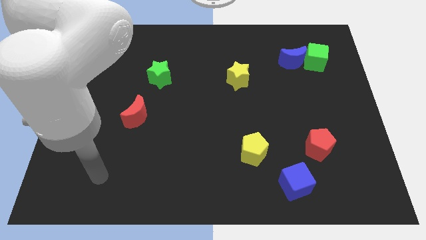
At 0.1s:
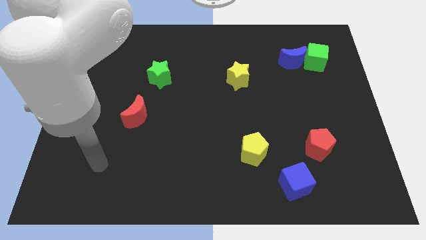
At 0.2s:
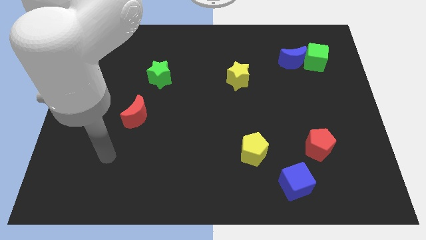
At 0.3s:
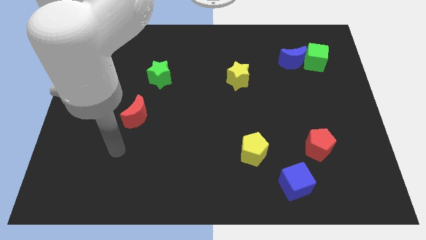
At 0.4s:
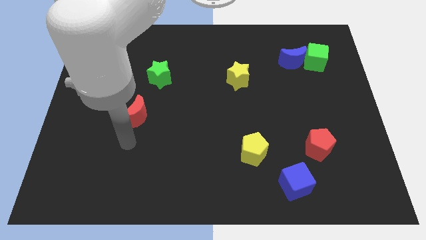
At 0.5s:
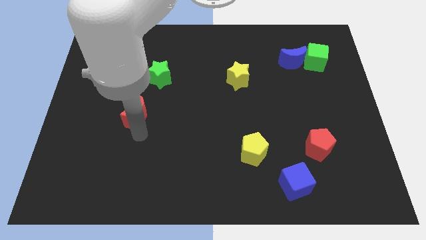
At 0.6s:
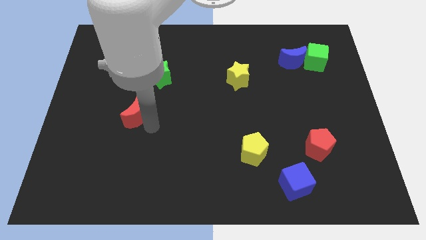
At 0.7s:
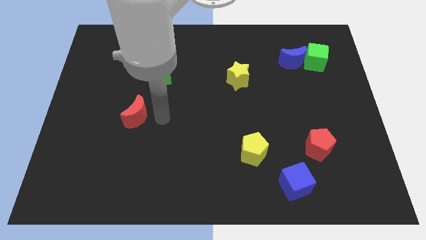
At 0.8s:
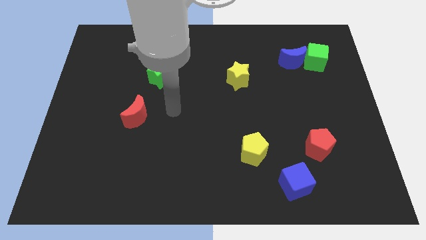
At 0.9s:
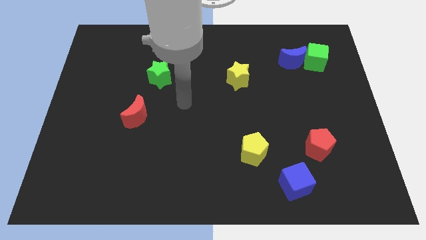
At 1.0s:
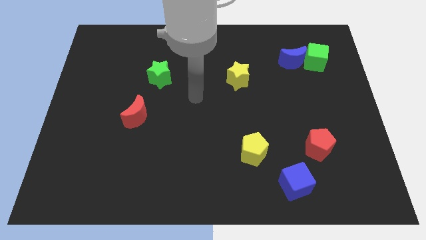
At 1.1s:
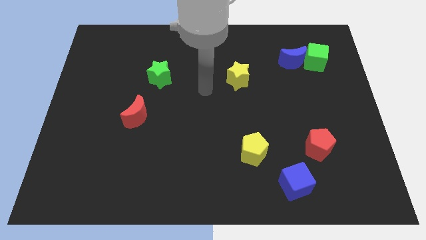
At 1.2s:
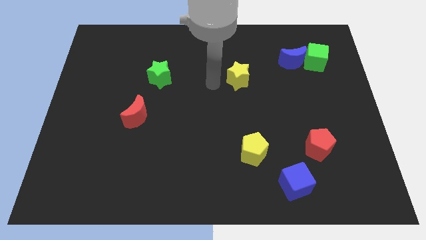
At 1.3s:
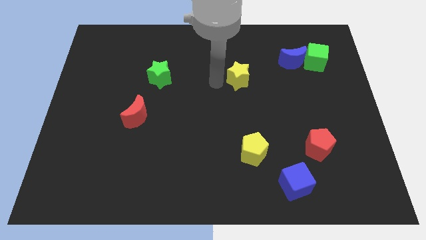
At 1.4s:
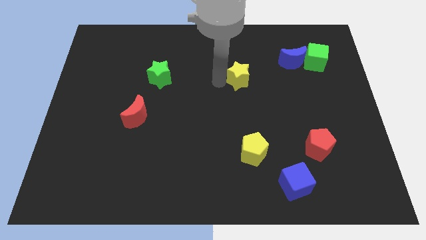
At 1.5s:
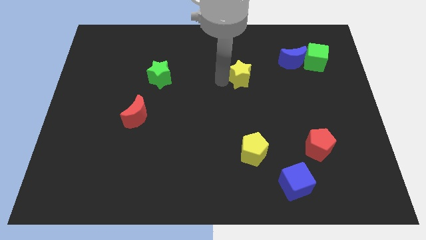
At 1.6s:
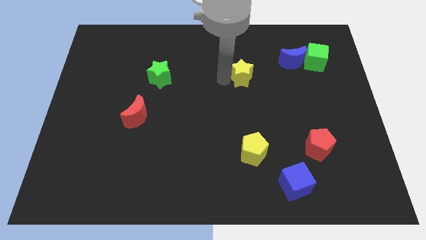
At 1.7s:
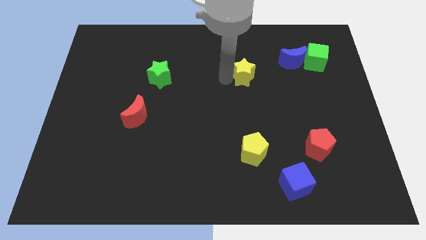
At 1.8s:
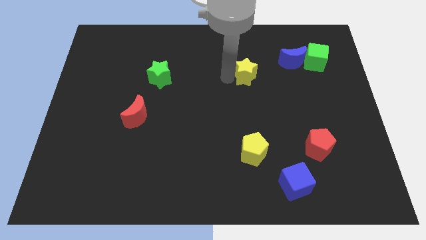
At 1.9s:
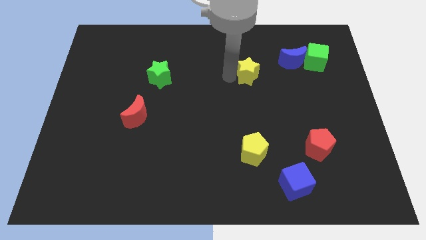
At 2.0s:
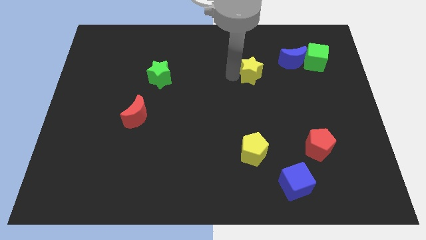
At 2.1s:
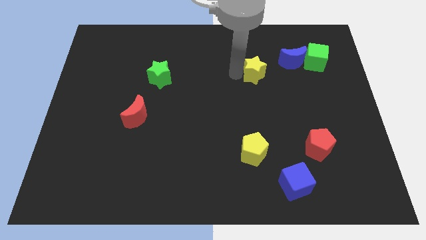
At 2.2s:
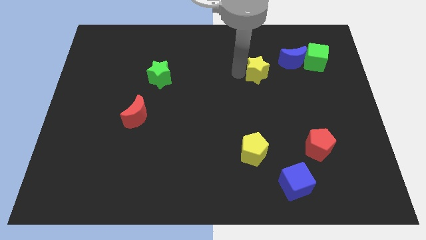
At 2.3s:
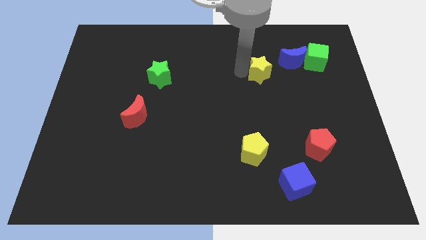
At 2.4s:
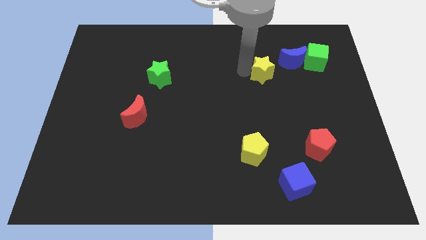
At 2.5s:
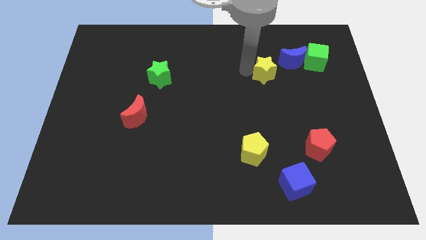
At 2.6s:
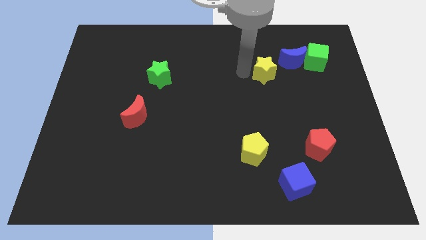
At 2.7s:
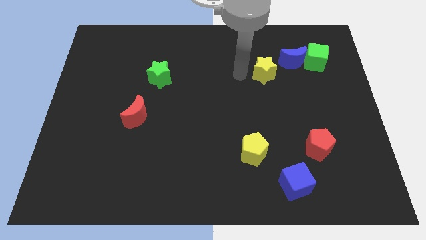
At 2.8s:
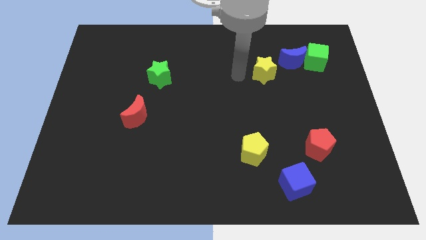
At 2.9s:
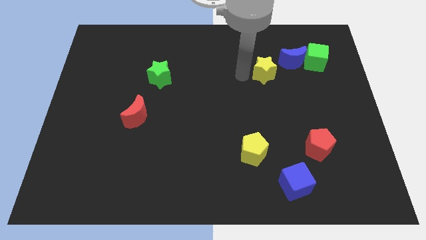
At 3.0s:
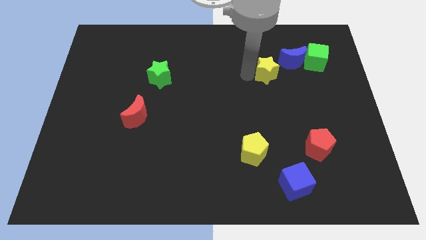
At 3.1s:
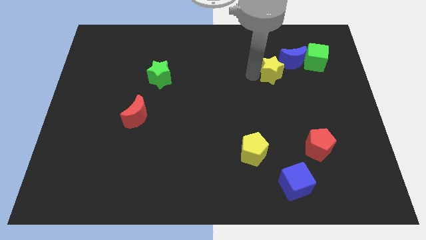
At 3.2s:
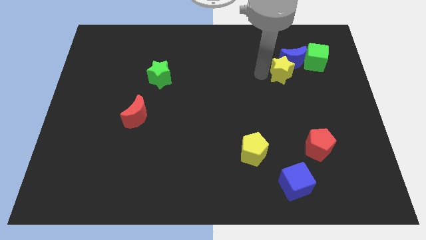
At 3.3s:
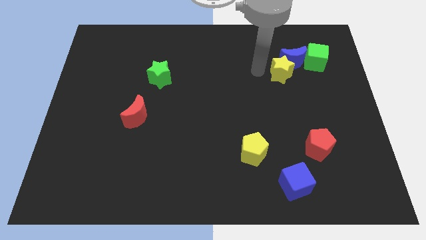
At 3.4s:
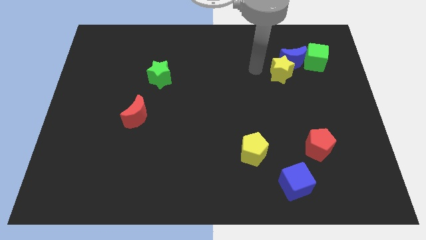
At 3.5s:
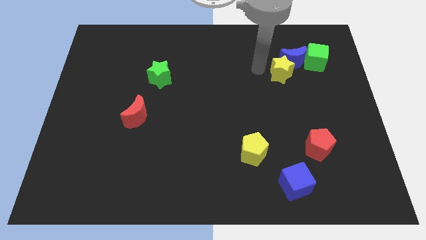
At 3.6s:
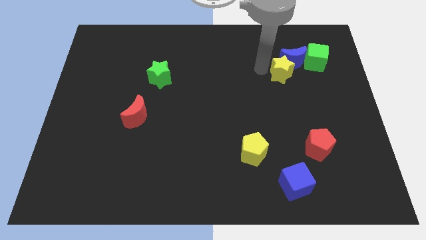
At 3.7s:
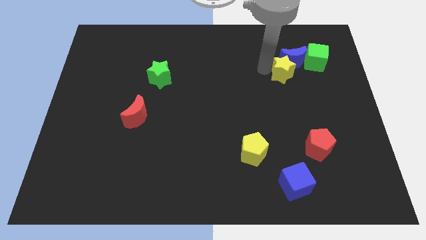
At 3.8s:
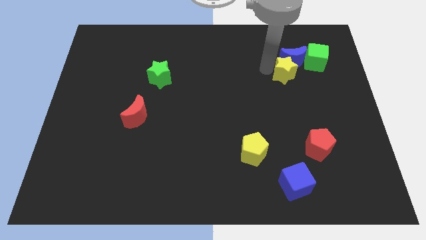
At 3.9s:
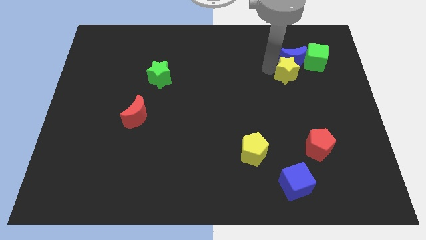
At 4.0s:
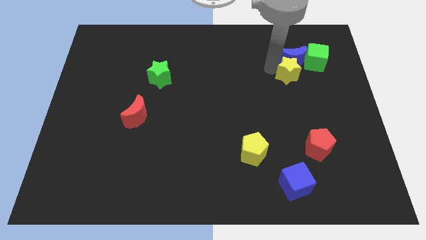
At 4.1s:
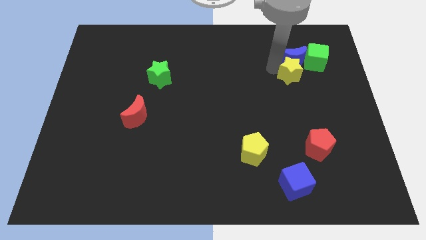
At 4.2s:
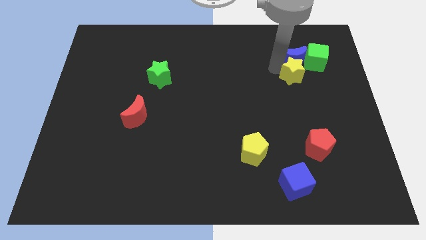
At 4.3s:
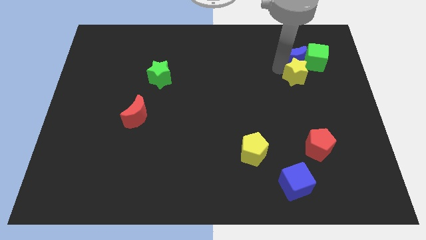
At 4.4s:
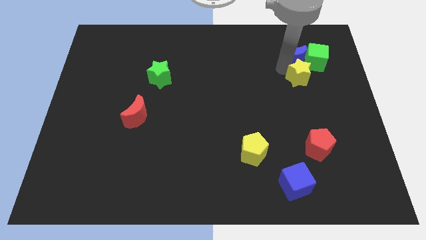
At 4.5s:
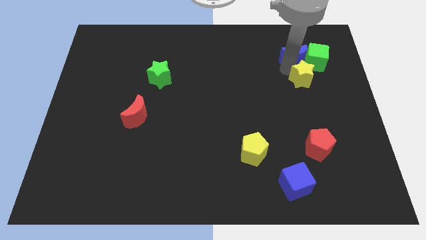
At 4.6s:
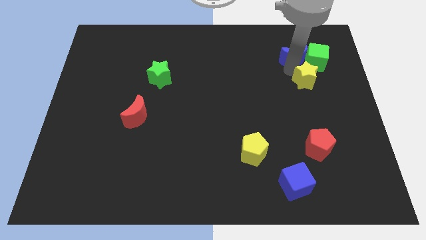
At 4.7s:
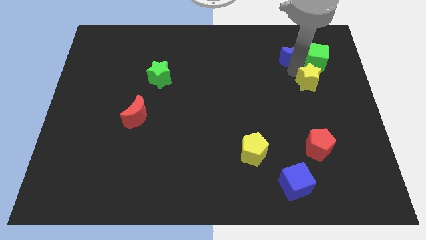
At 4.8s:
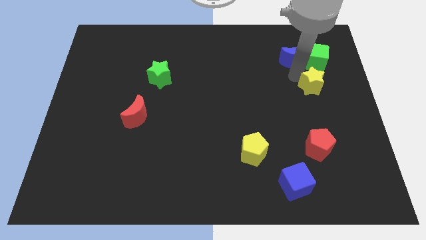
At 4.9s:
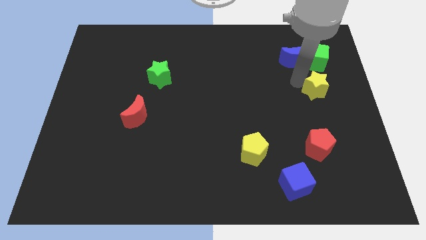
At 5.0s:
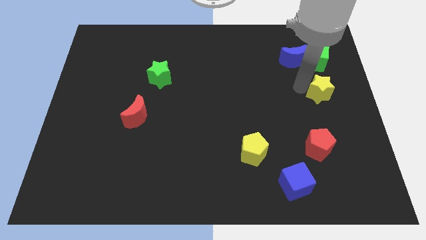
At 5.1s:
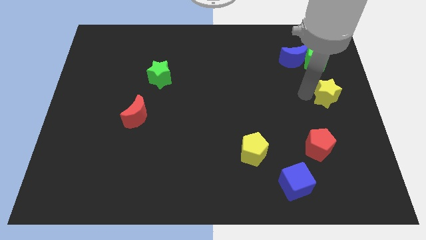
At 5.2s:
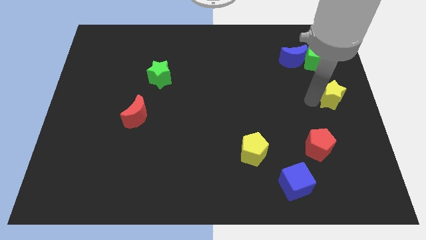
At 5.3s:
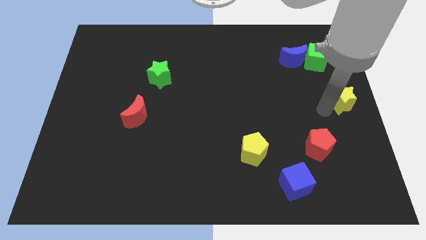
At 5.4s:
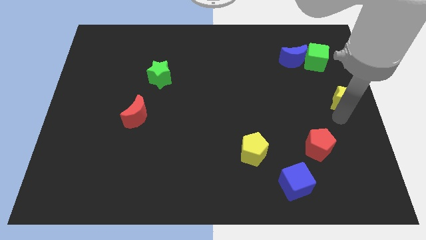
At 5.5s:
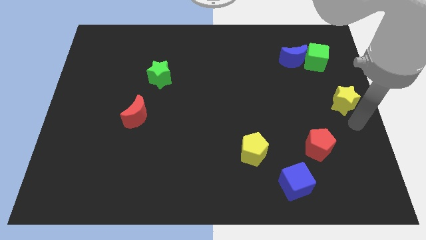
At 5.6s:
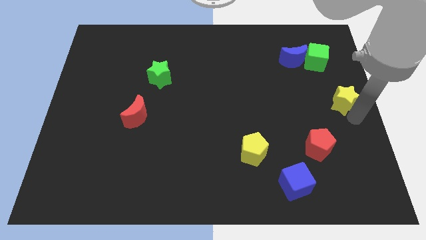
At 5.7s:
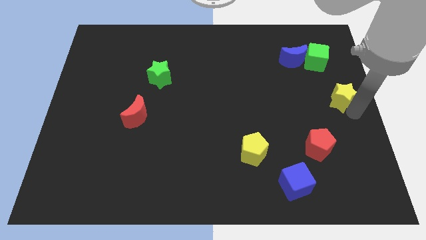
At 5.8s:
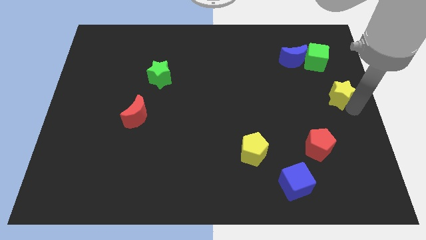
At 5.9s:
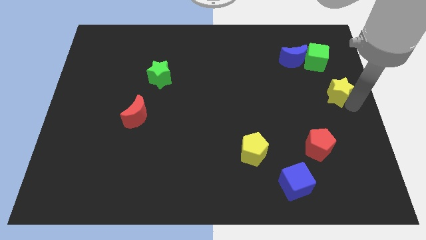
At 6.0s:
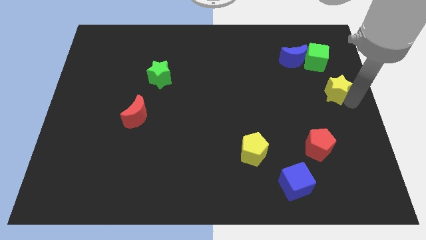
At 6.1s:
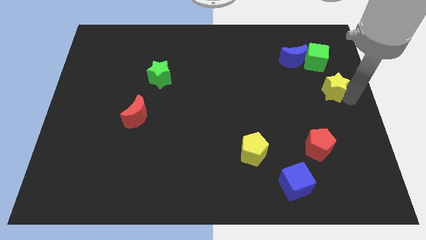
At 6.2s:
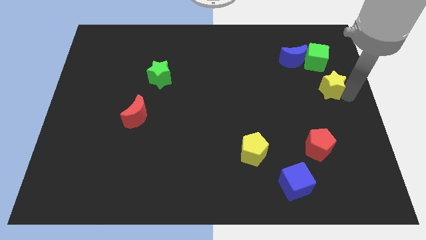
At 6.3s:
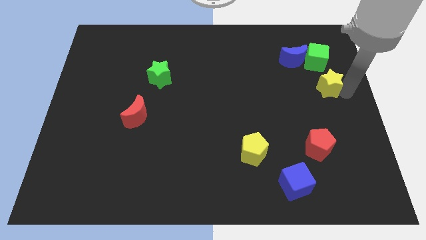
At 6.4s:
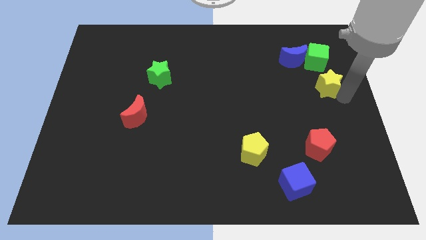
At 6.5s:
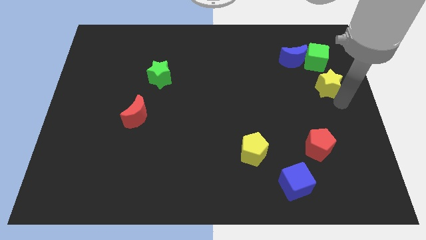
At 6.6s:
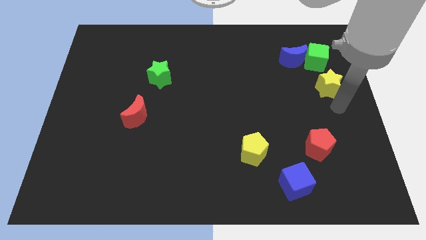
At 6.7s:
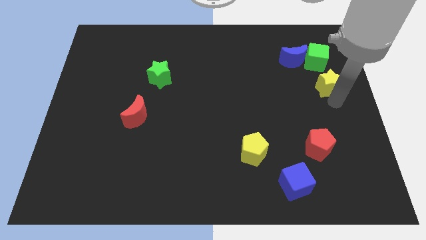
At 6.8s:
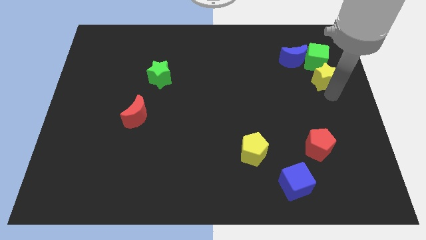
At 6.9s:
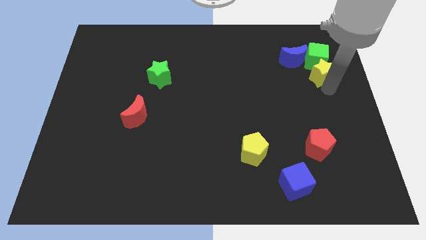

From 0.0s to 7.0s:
put the yellow star close to the green cube

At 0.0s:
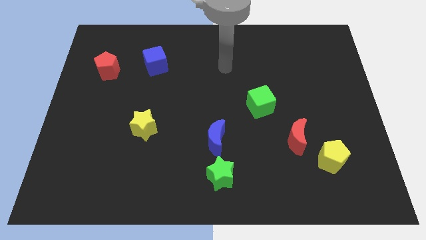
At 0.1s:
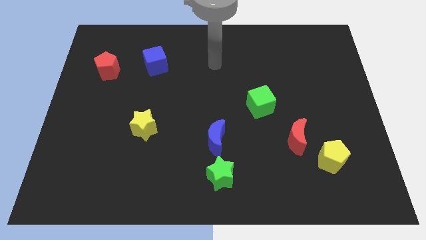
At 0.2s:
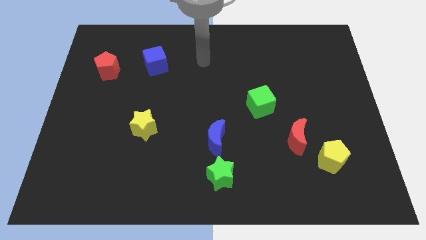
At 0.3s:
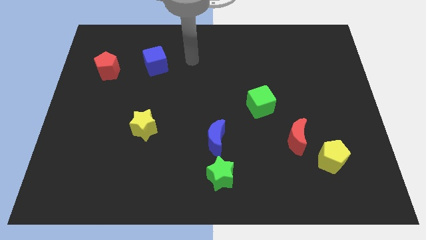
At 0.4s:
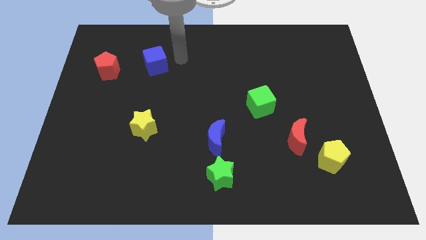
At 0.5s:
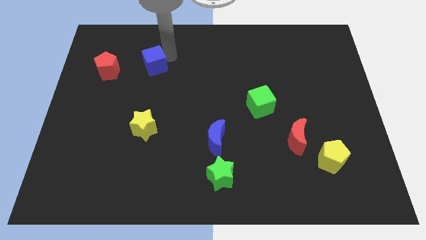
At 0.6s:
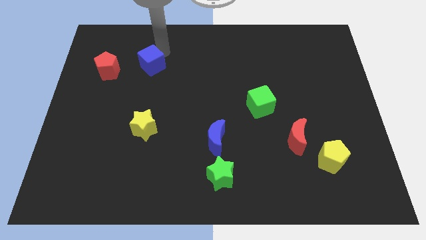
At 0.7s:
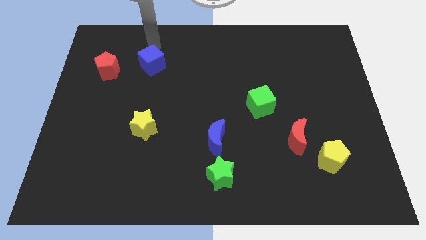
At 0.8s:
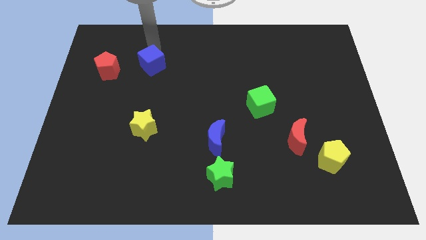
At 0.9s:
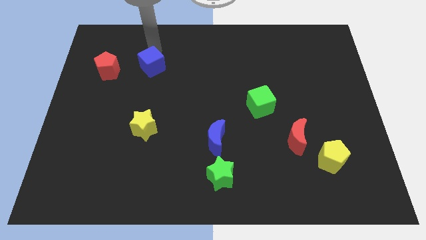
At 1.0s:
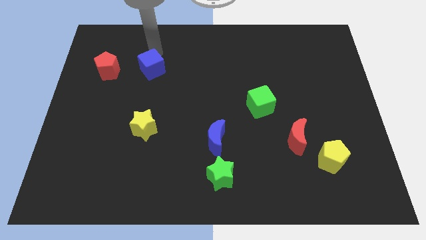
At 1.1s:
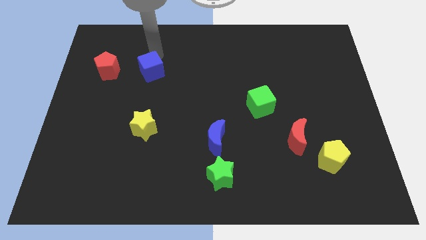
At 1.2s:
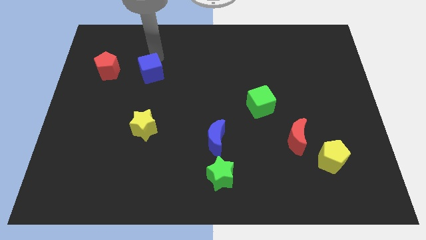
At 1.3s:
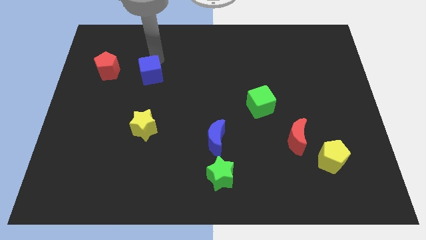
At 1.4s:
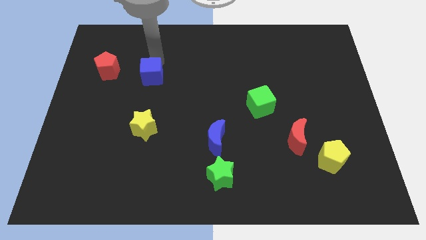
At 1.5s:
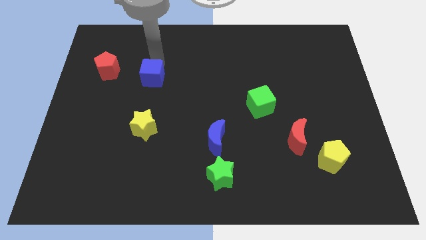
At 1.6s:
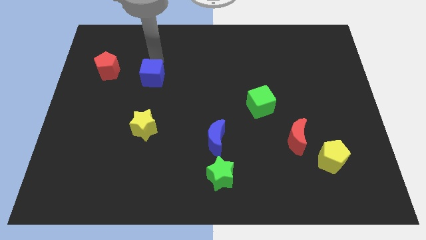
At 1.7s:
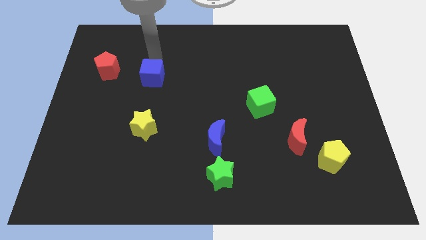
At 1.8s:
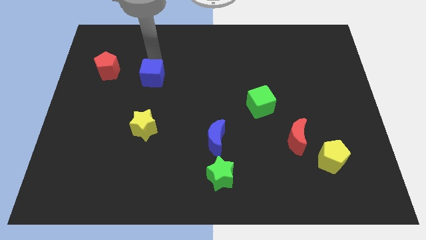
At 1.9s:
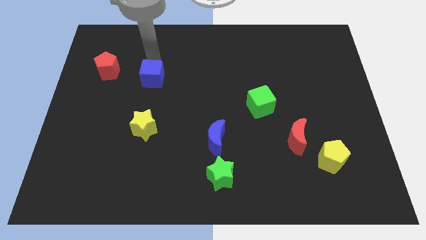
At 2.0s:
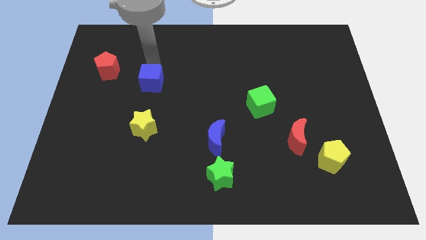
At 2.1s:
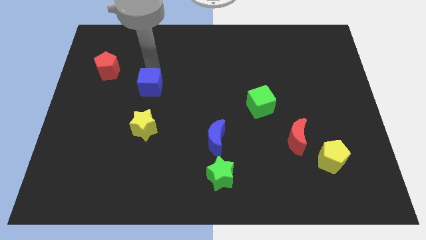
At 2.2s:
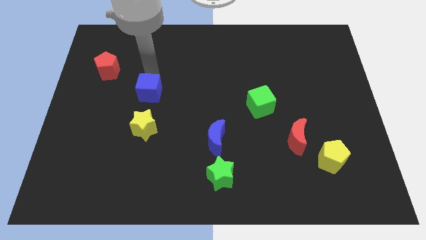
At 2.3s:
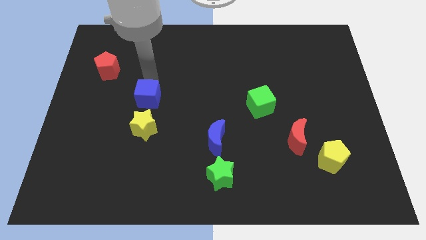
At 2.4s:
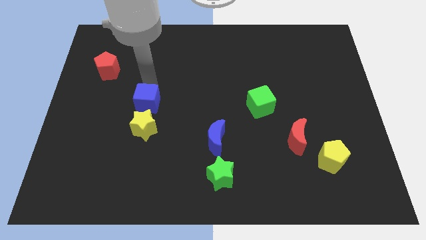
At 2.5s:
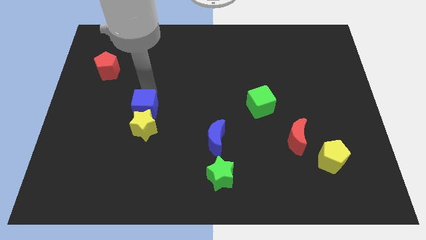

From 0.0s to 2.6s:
put the blue cube next to the yellow star
